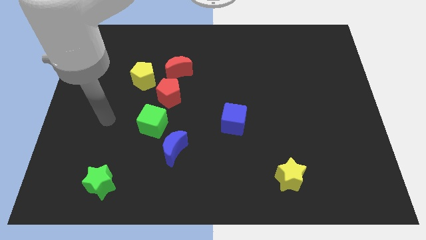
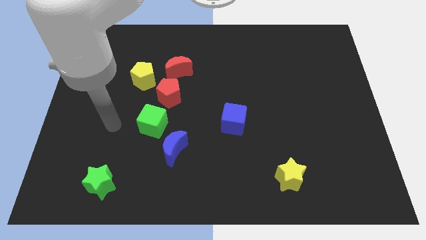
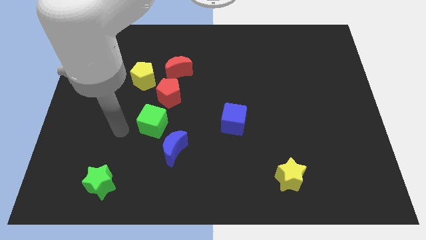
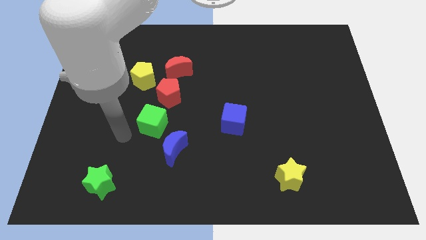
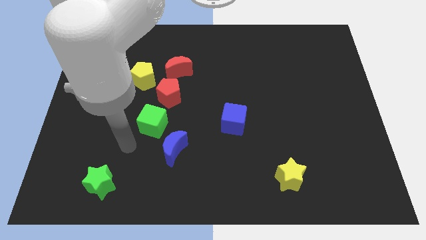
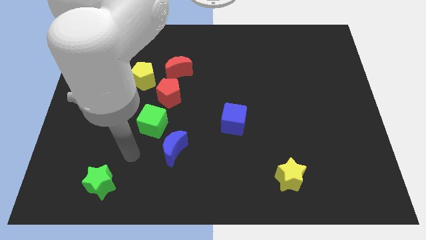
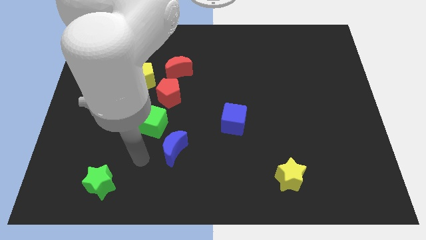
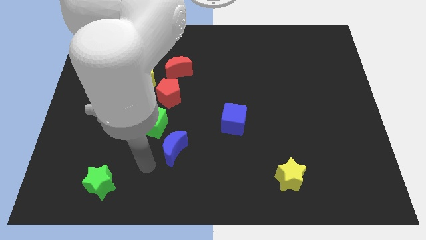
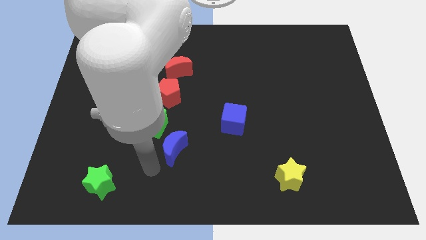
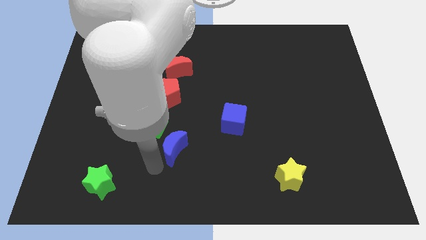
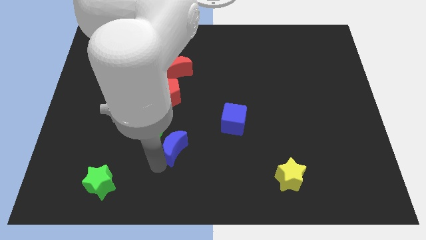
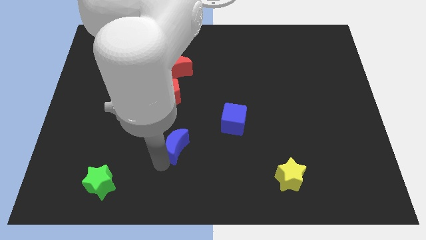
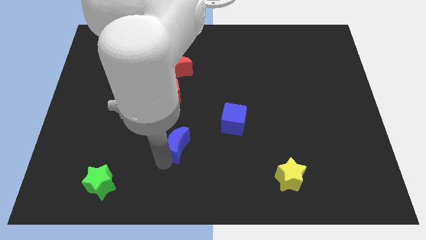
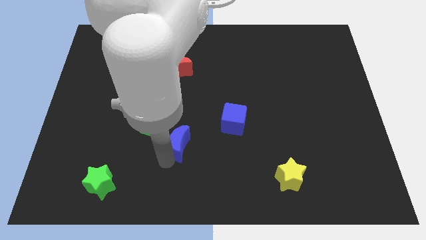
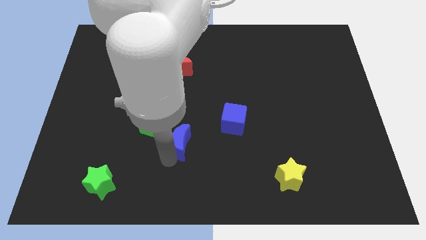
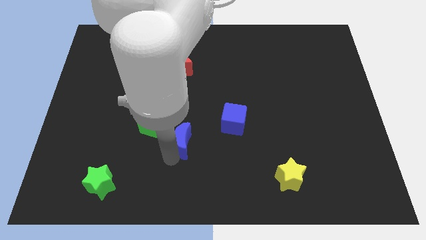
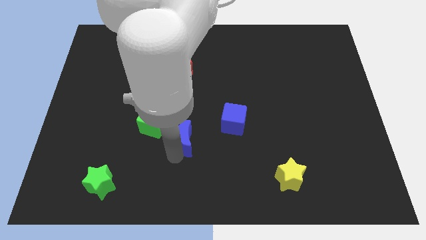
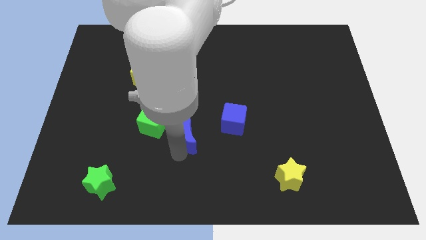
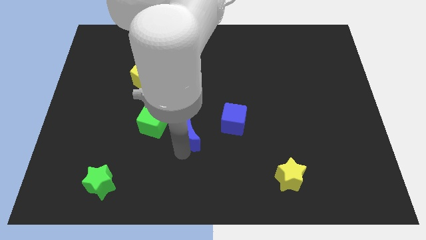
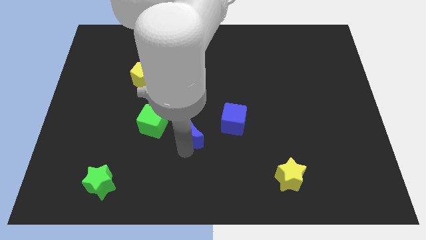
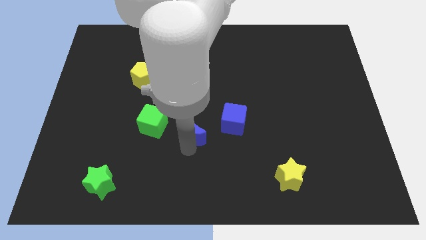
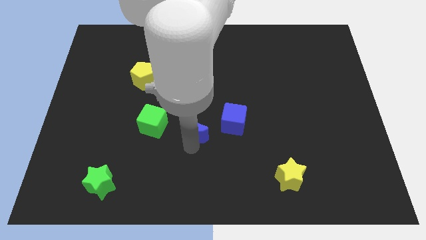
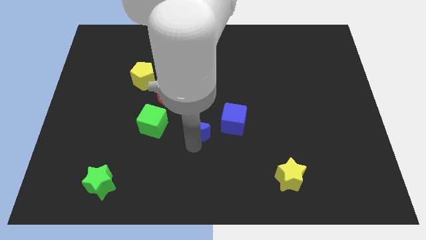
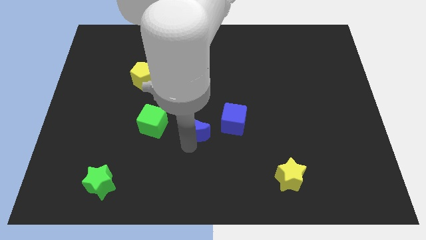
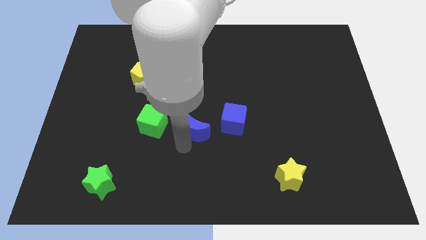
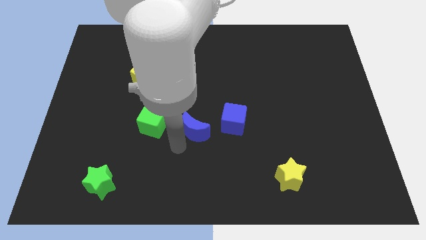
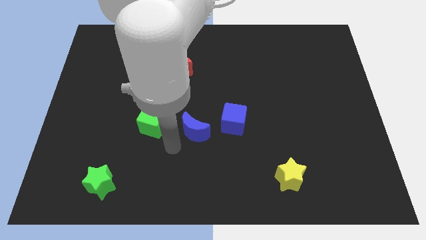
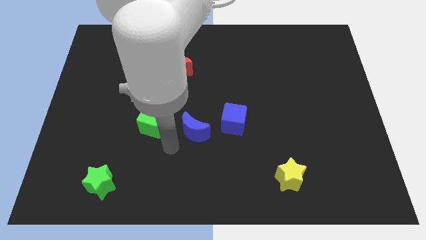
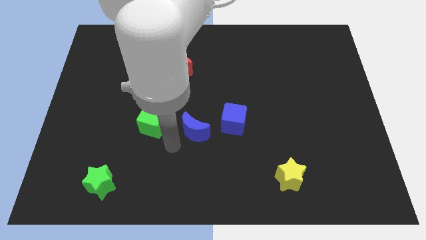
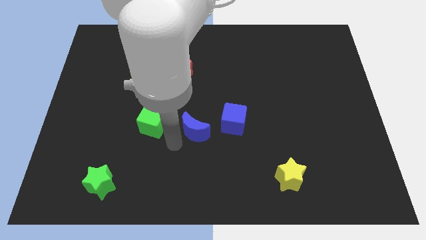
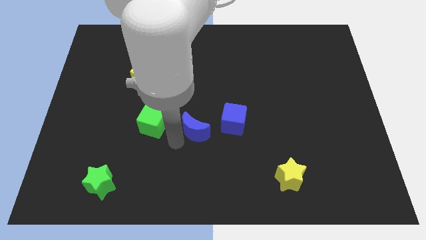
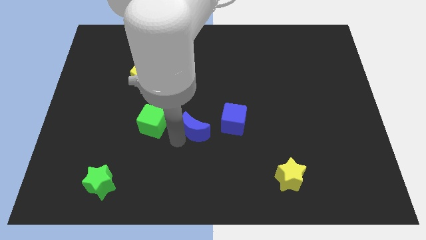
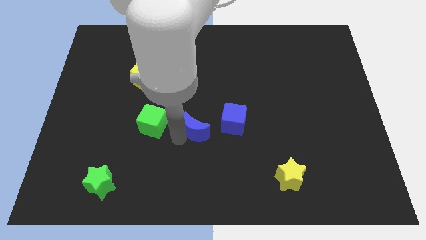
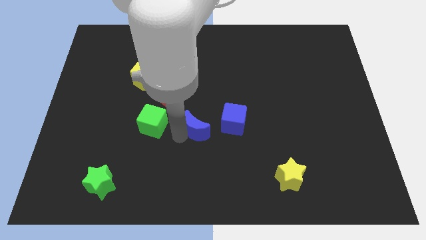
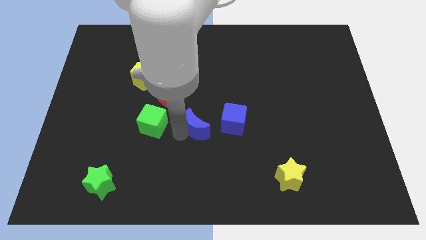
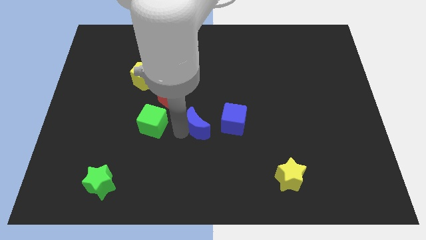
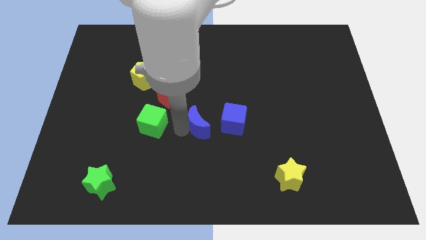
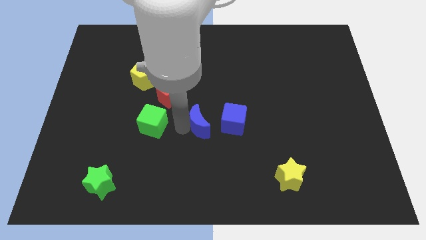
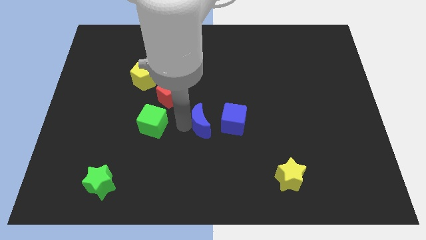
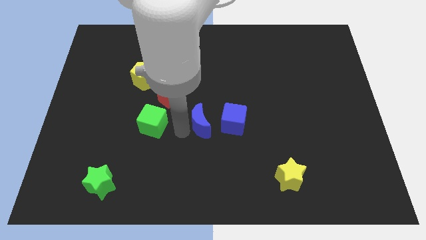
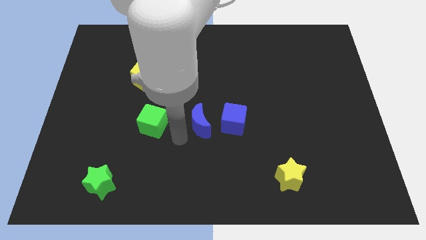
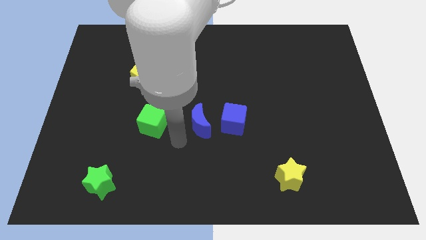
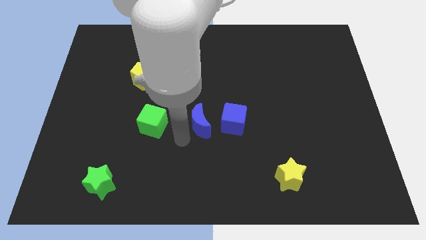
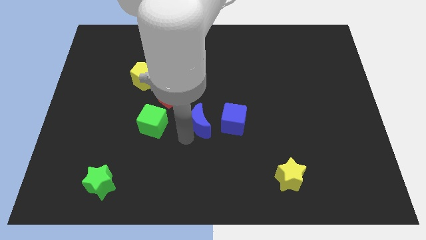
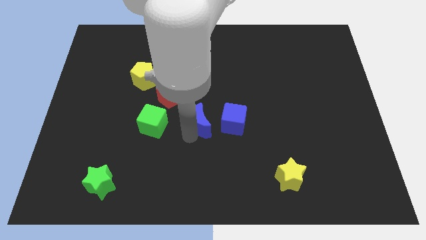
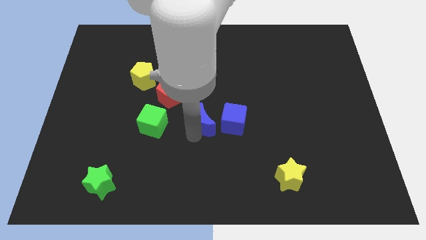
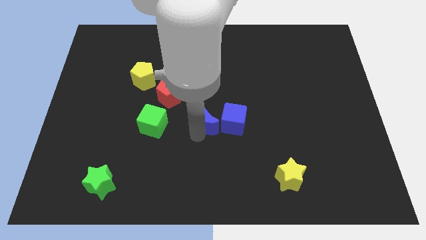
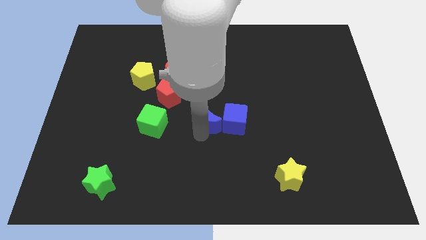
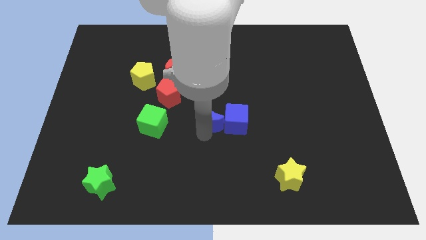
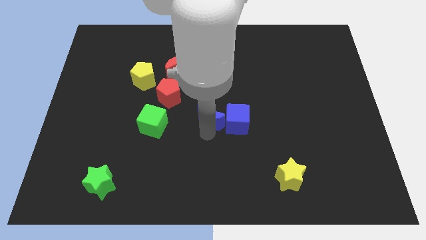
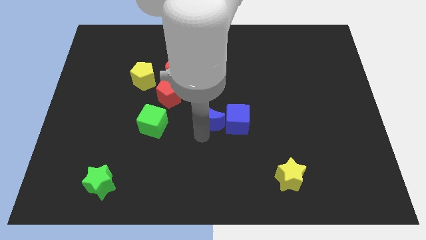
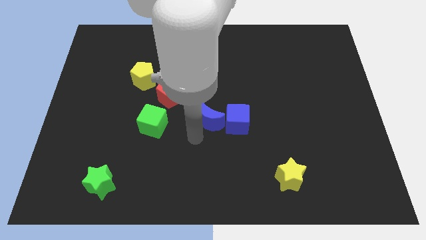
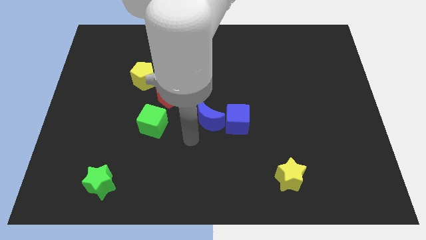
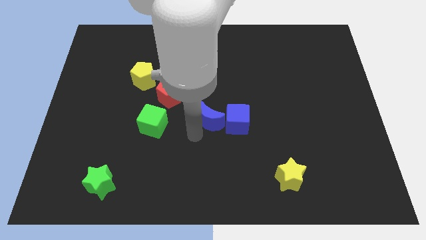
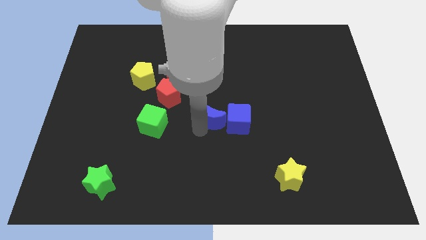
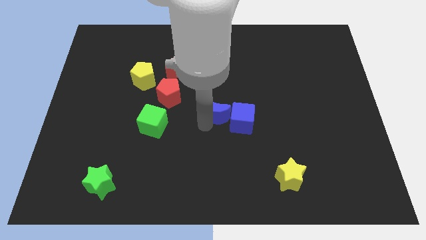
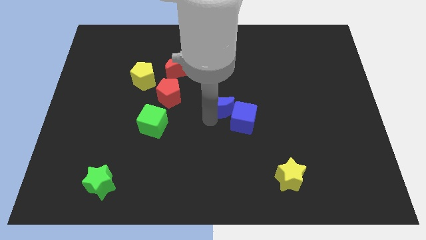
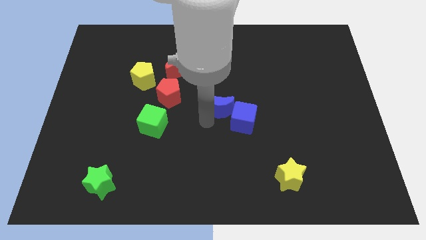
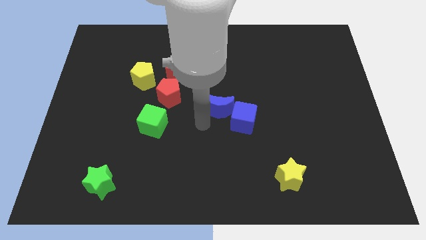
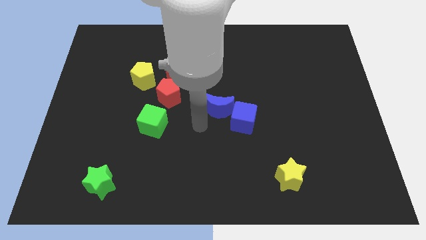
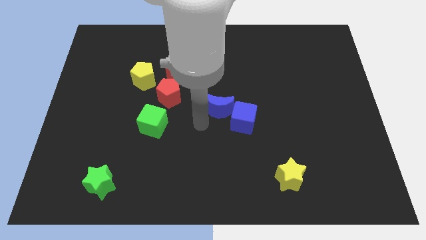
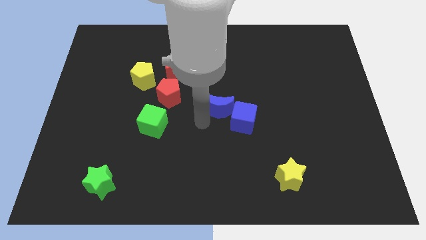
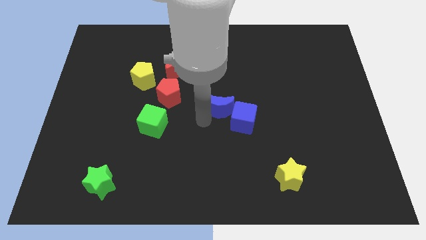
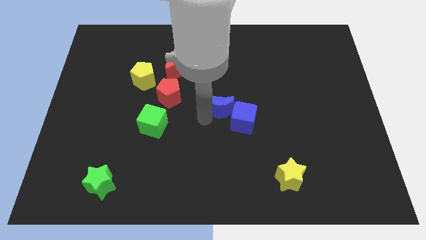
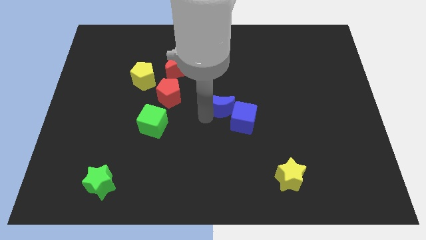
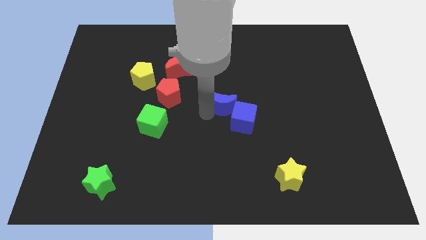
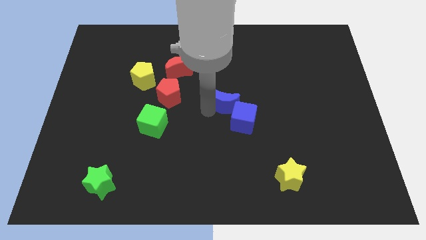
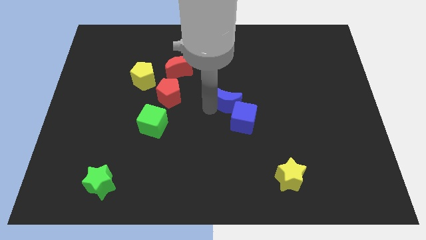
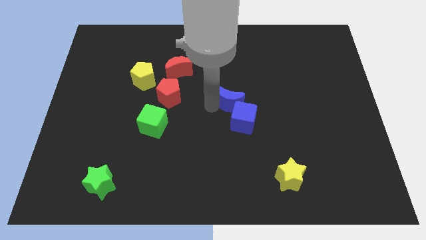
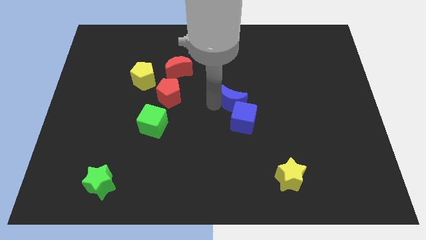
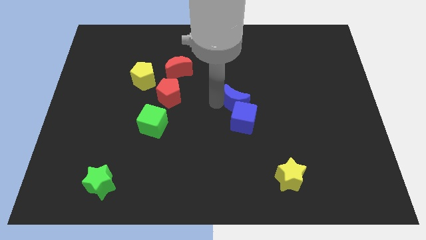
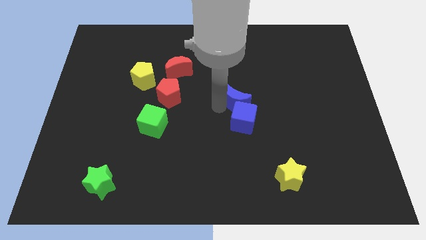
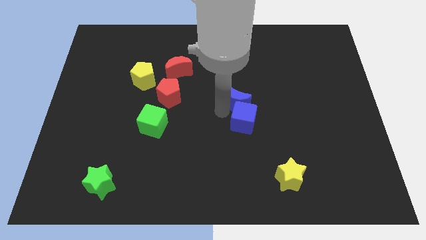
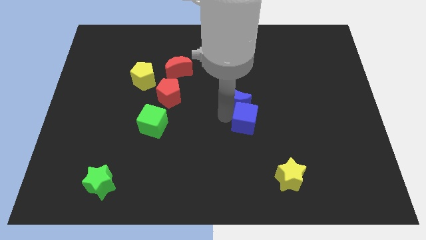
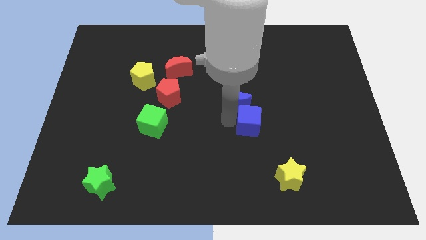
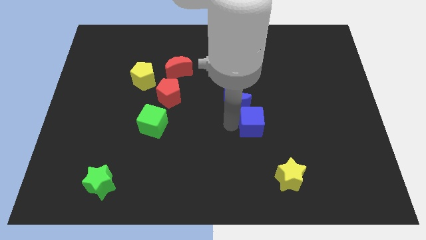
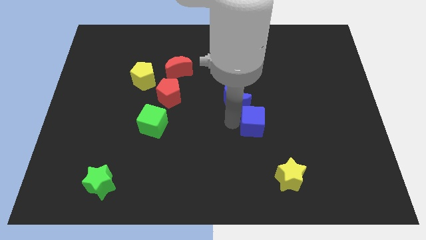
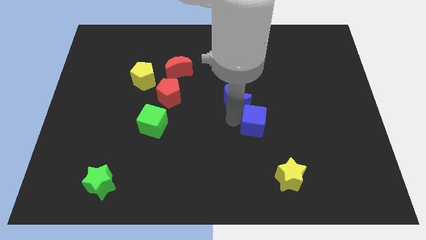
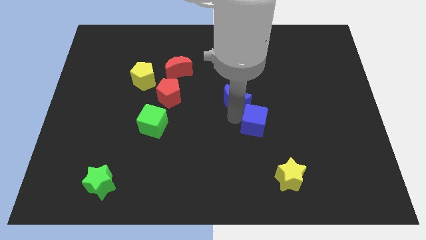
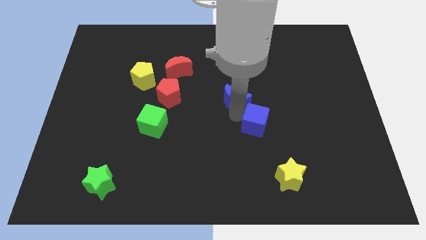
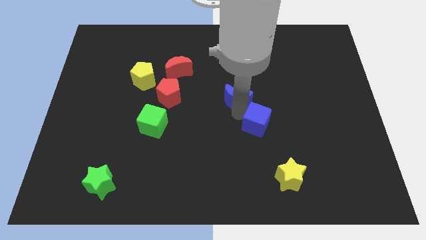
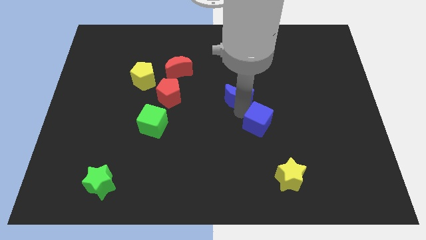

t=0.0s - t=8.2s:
move the blue moon up and right diagonally

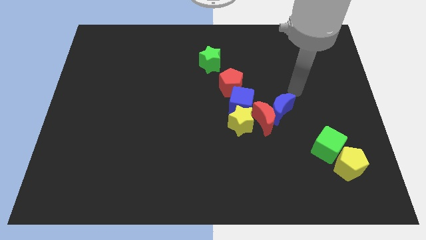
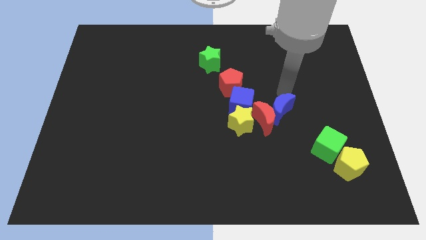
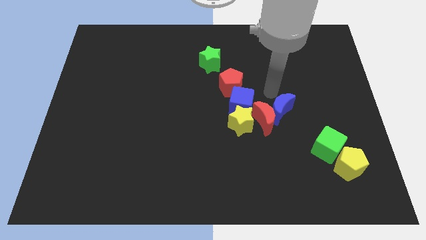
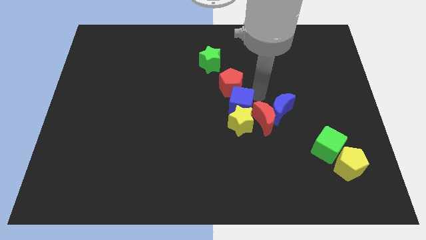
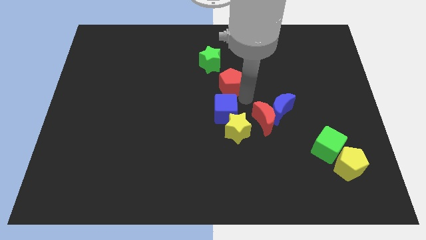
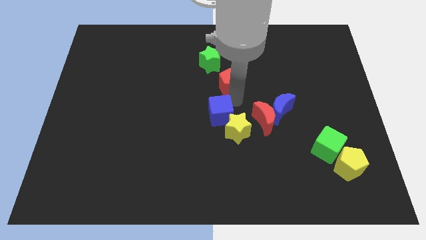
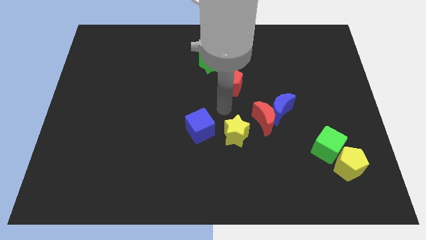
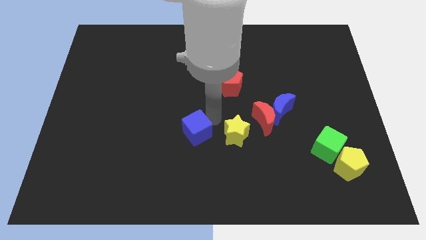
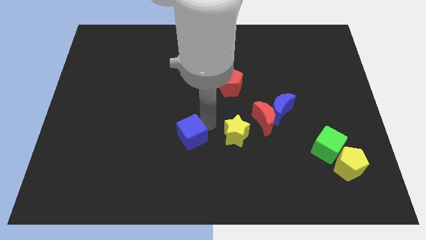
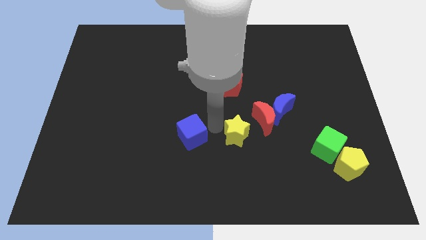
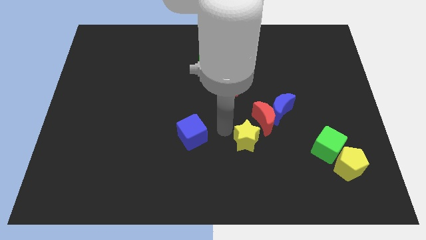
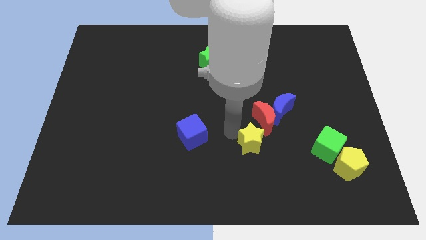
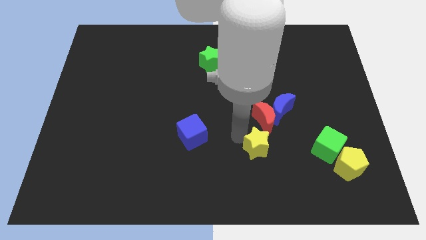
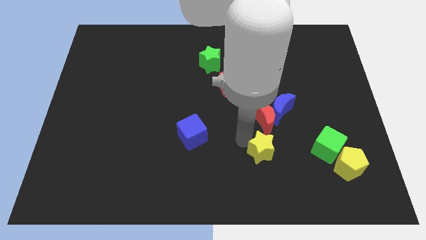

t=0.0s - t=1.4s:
push the yellow star downwards and then right a bit
